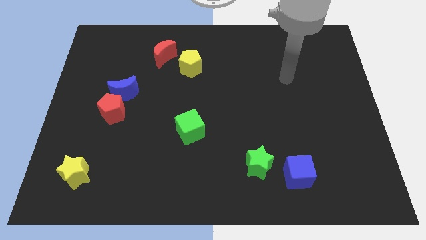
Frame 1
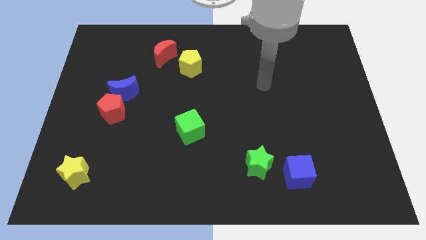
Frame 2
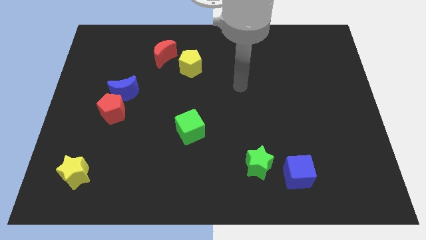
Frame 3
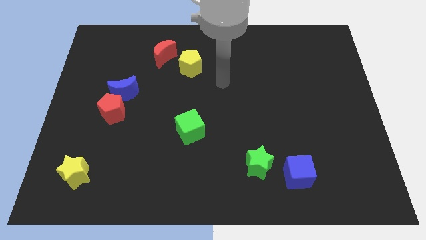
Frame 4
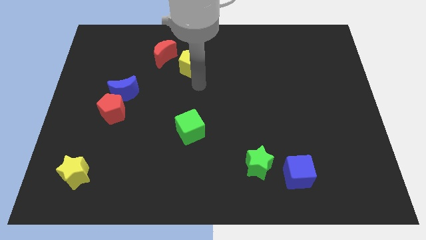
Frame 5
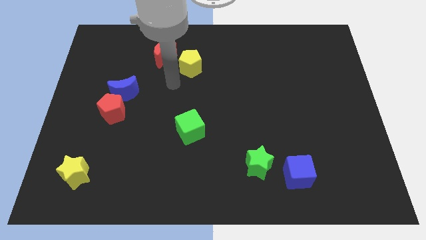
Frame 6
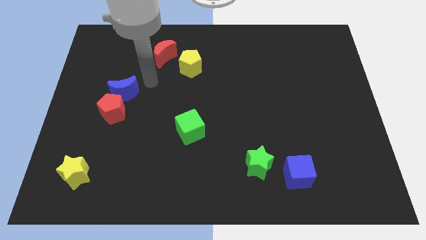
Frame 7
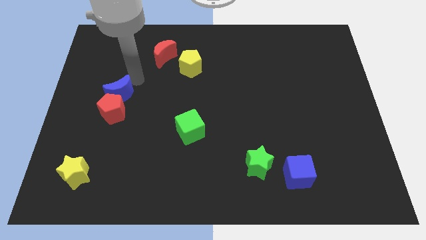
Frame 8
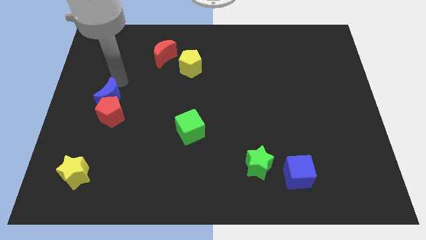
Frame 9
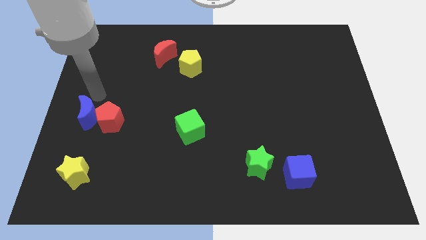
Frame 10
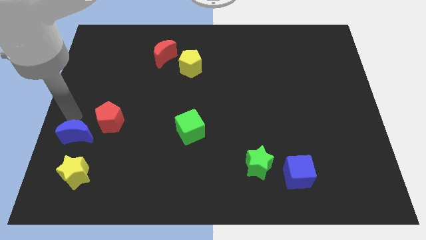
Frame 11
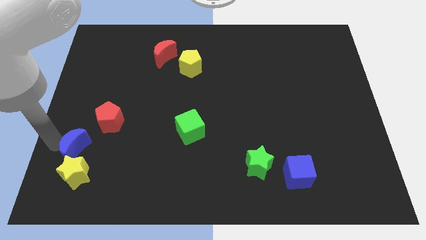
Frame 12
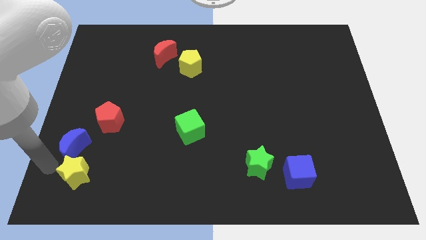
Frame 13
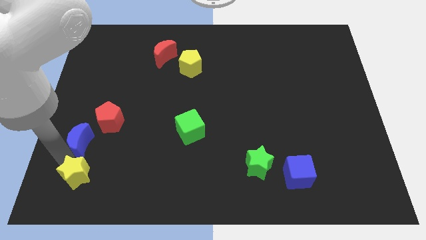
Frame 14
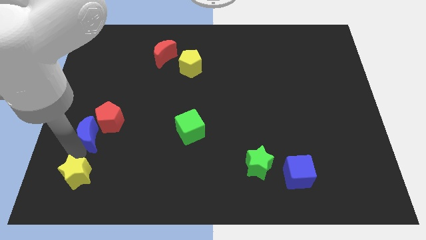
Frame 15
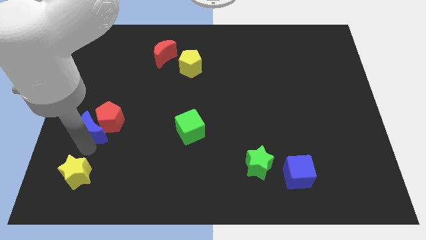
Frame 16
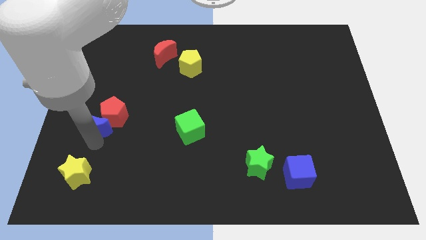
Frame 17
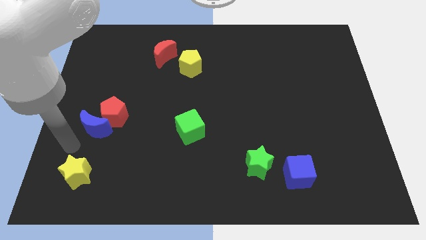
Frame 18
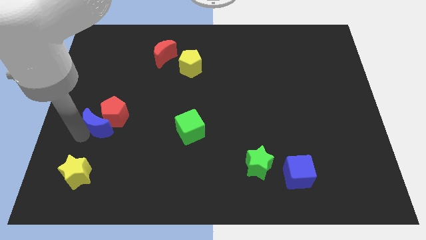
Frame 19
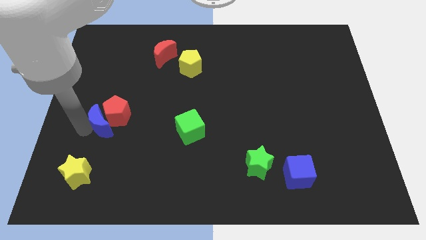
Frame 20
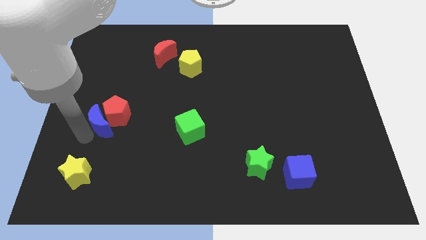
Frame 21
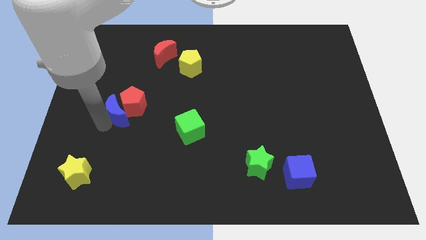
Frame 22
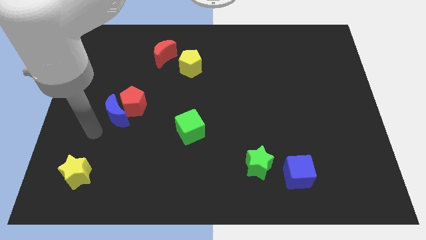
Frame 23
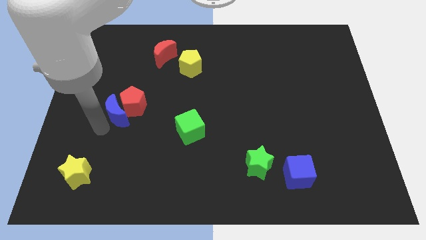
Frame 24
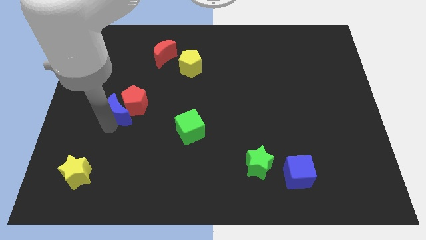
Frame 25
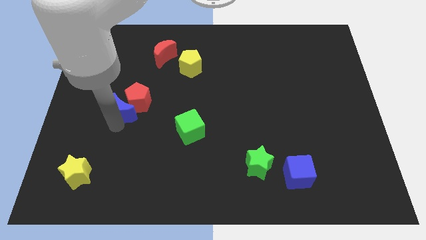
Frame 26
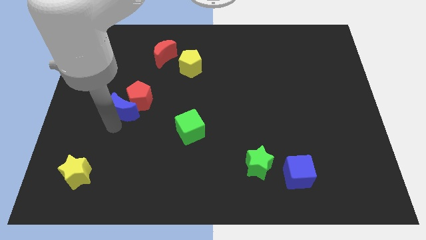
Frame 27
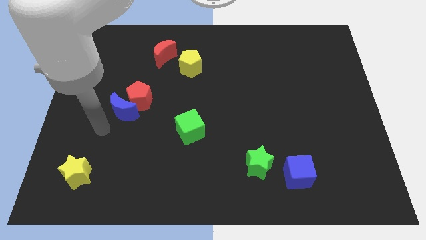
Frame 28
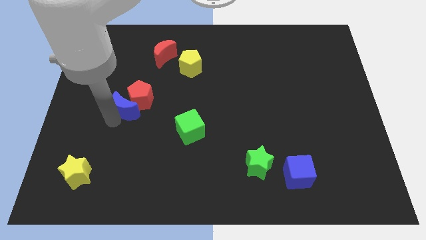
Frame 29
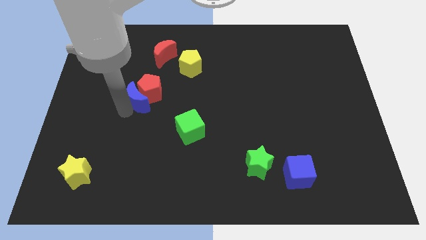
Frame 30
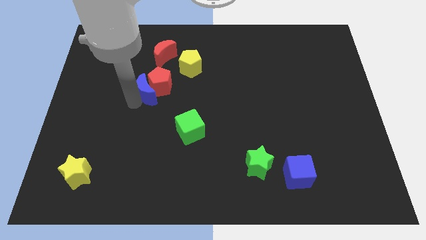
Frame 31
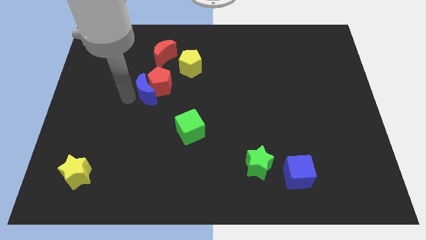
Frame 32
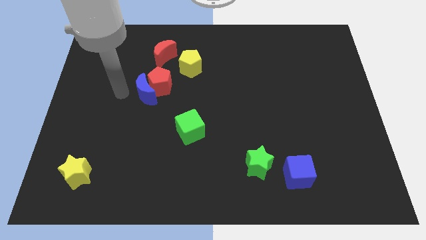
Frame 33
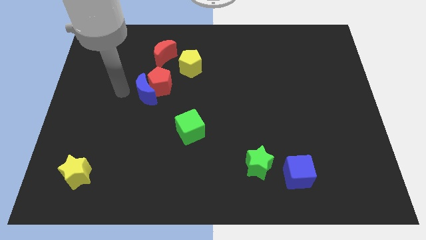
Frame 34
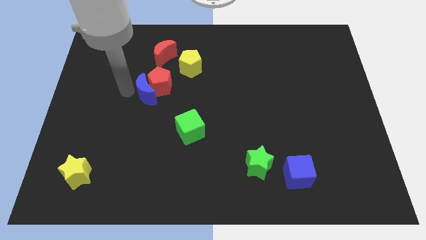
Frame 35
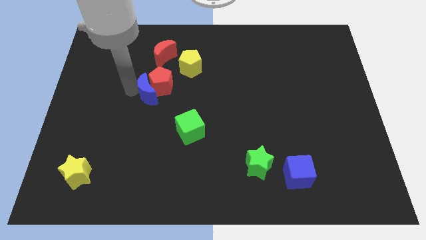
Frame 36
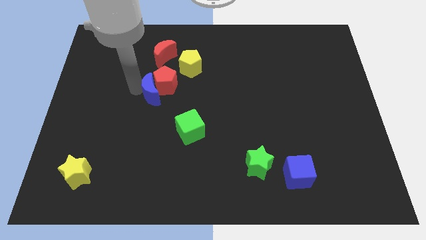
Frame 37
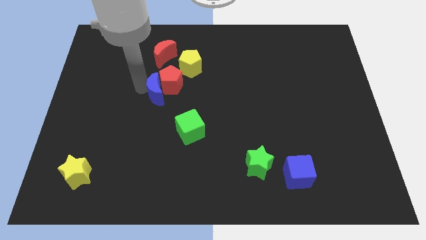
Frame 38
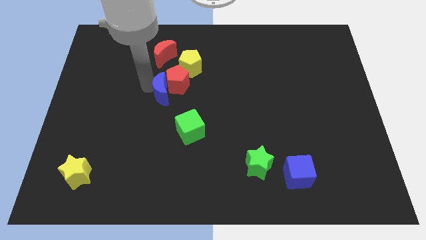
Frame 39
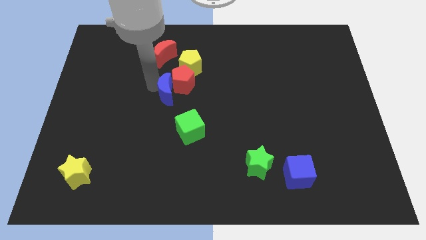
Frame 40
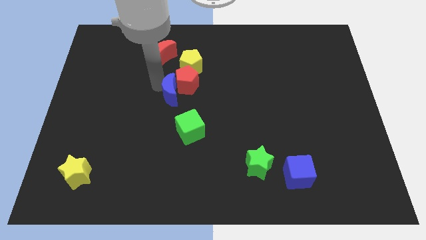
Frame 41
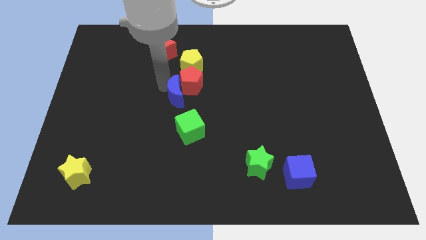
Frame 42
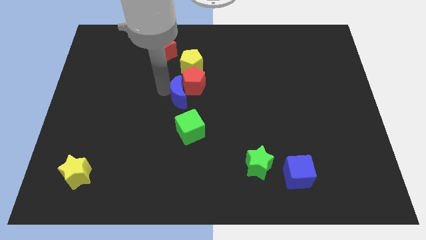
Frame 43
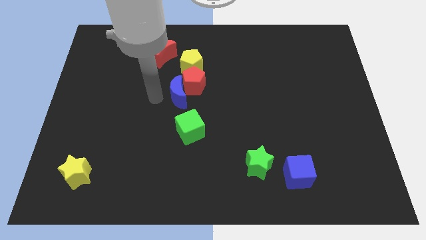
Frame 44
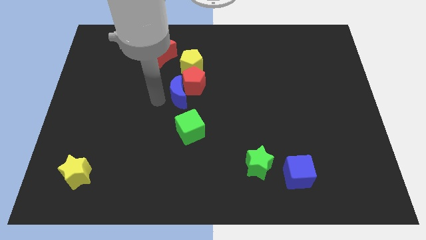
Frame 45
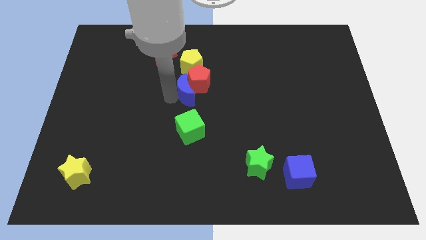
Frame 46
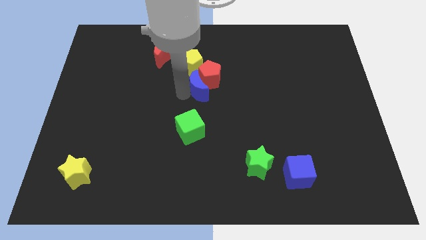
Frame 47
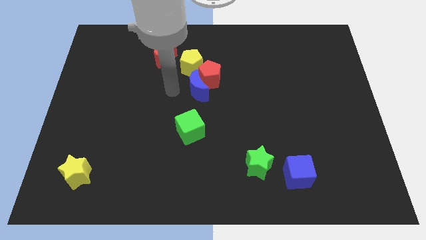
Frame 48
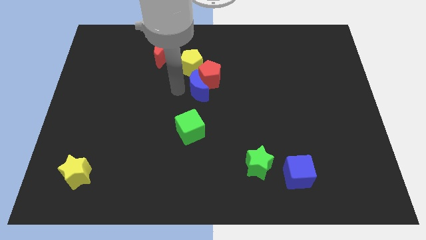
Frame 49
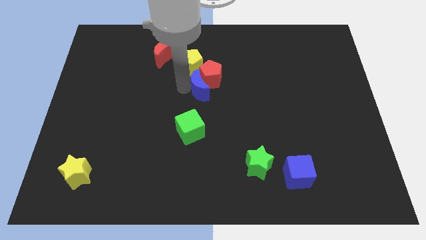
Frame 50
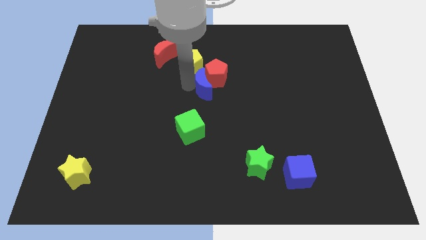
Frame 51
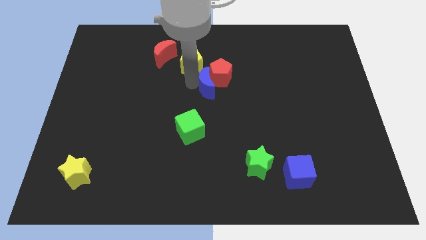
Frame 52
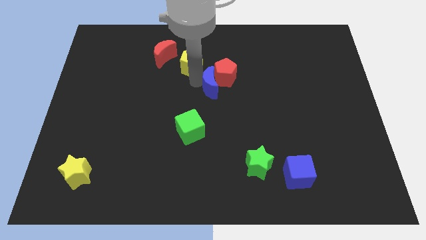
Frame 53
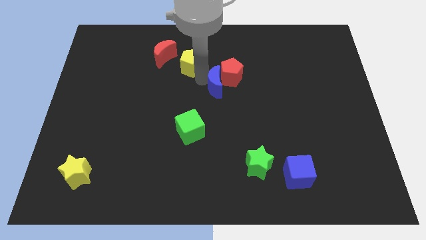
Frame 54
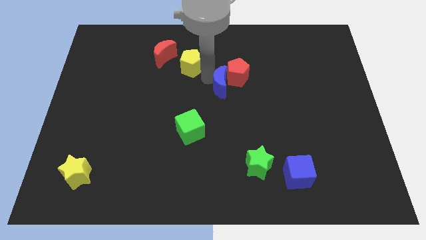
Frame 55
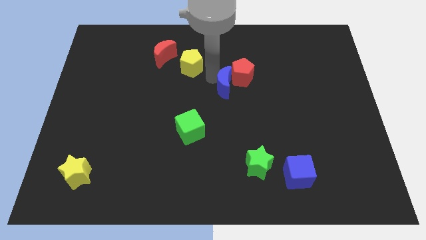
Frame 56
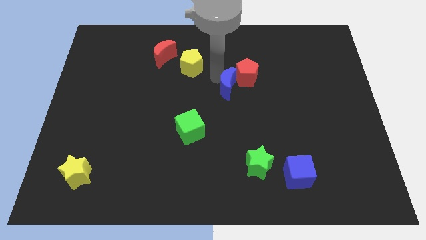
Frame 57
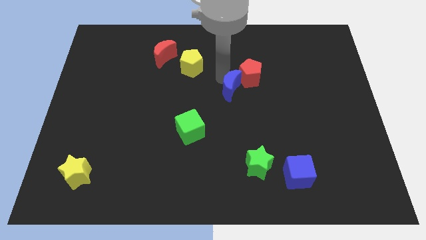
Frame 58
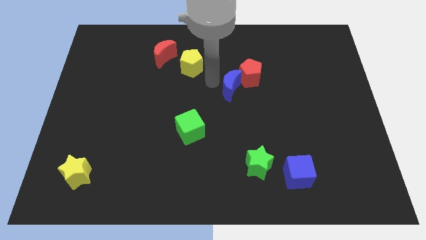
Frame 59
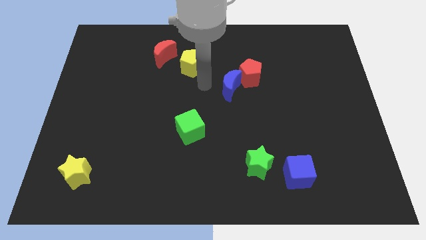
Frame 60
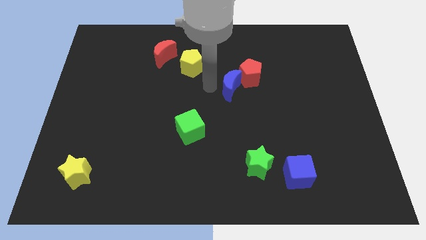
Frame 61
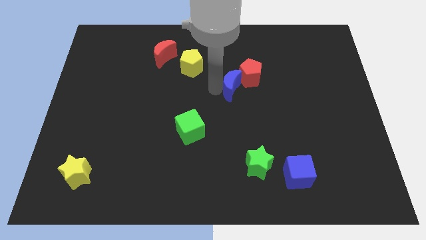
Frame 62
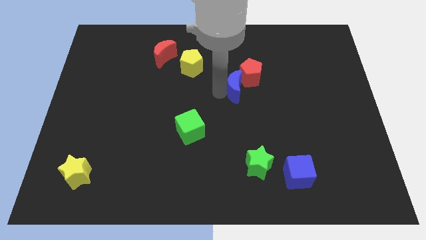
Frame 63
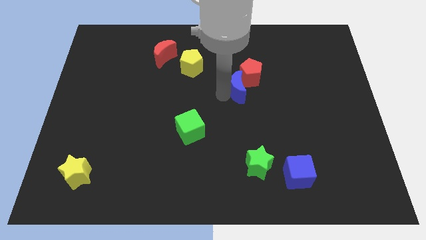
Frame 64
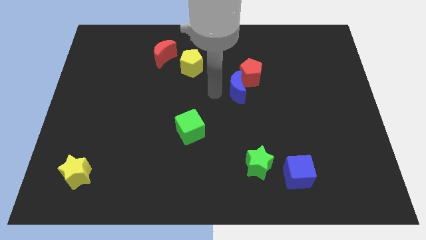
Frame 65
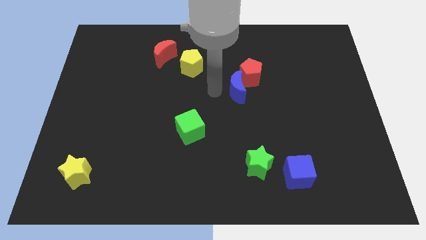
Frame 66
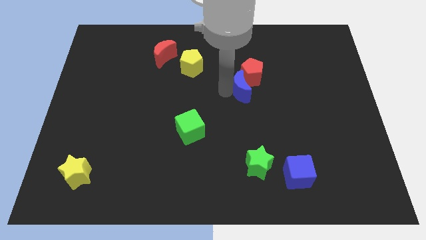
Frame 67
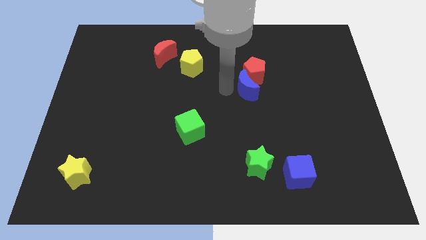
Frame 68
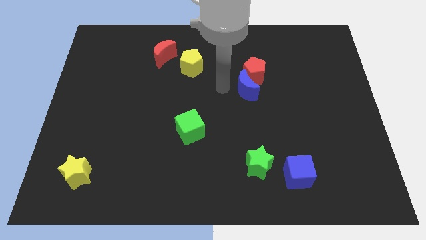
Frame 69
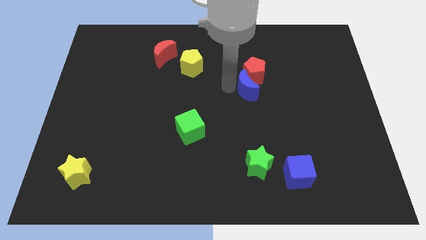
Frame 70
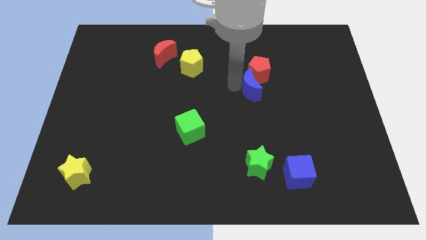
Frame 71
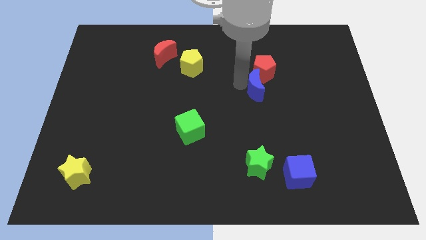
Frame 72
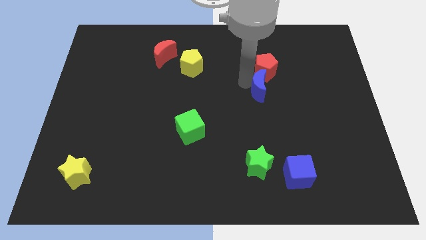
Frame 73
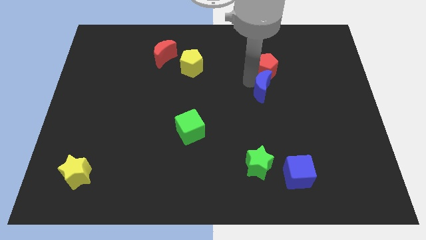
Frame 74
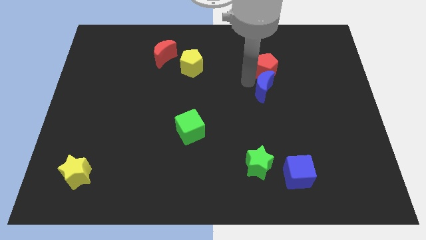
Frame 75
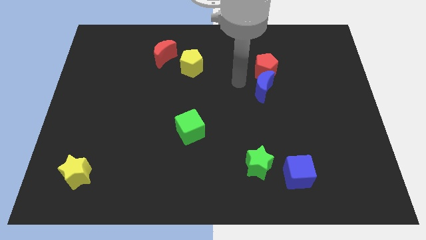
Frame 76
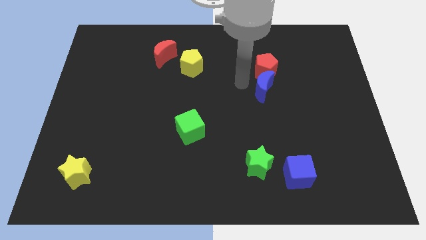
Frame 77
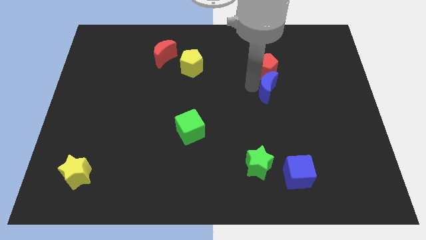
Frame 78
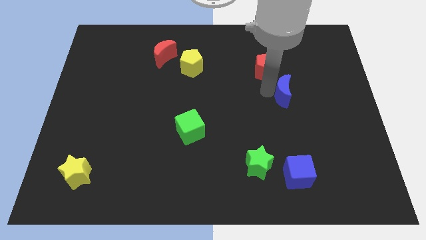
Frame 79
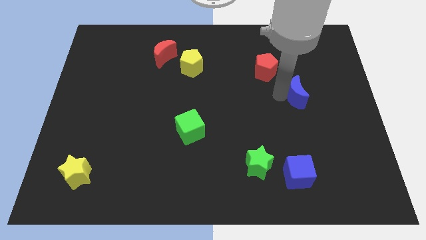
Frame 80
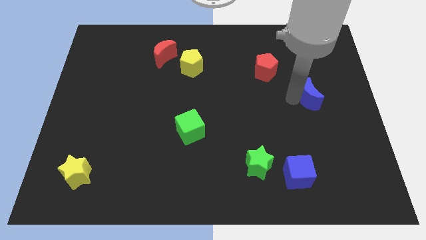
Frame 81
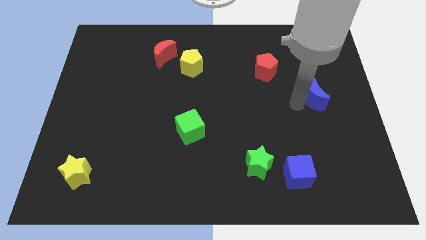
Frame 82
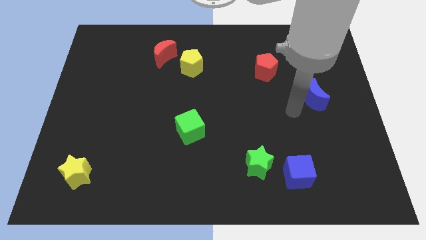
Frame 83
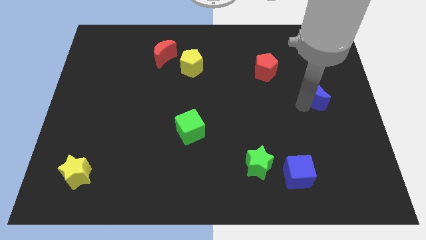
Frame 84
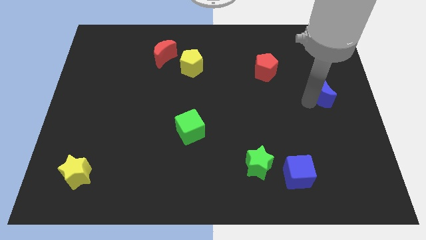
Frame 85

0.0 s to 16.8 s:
move the blue moon to the center right
